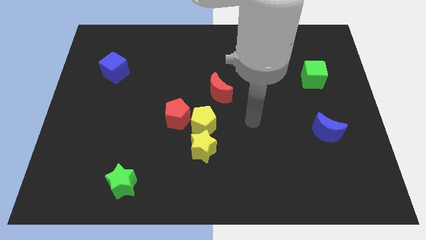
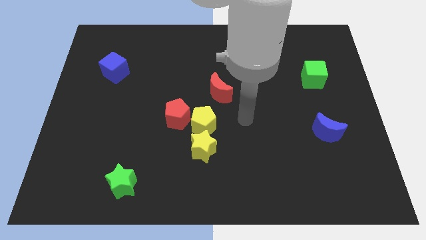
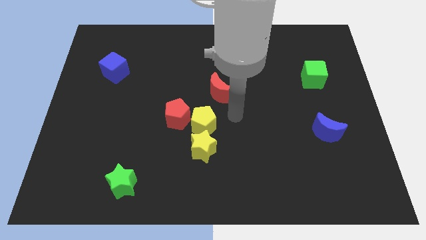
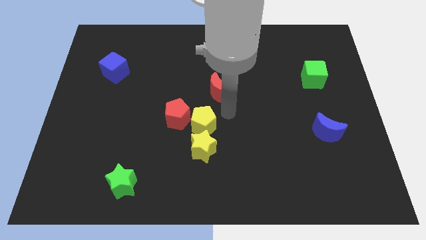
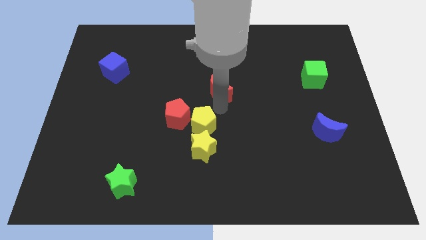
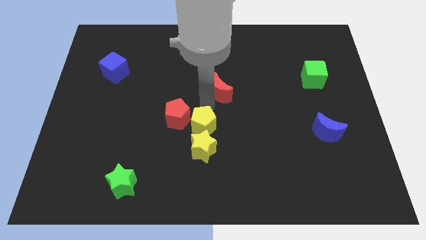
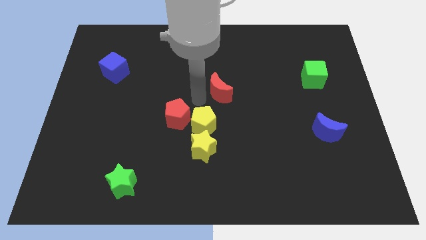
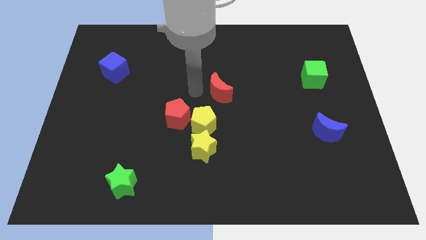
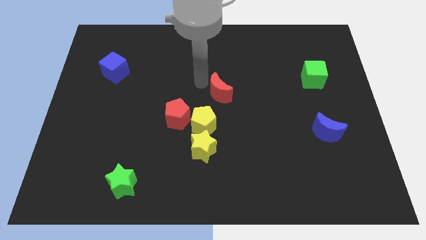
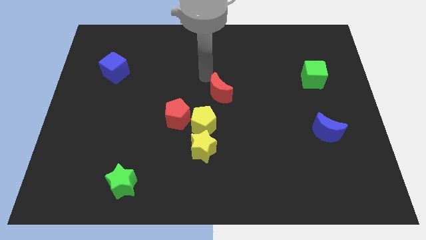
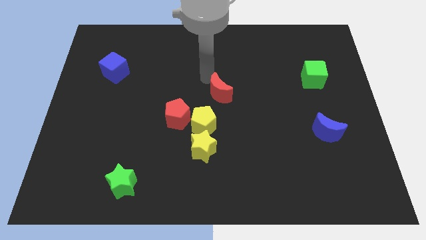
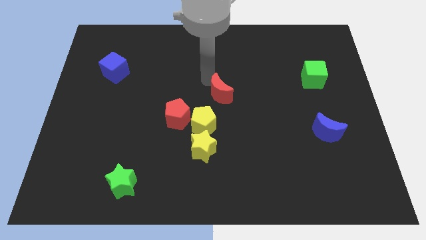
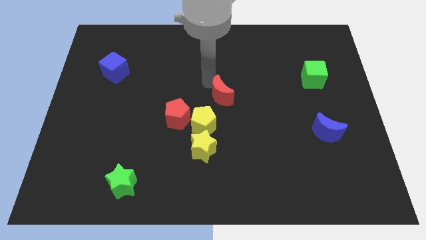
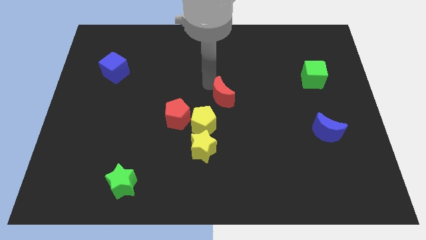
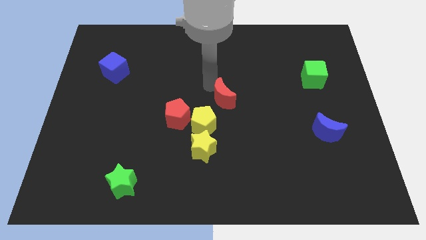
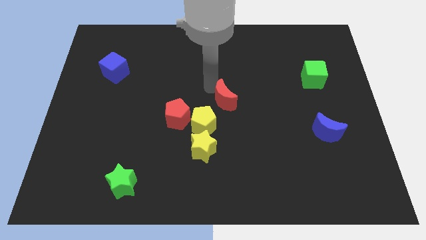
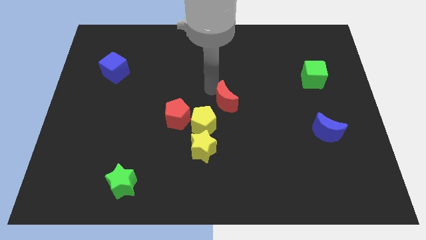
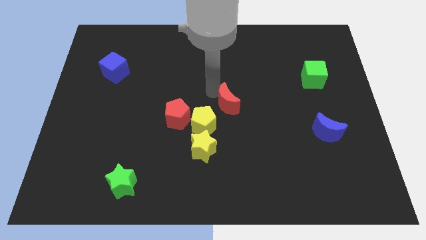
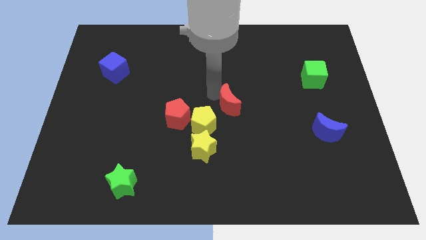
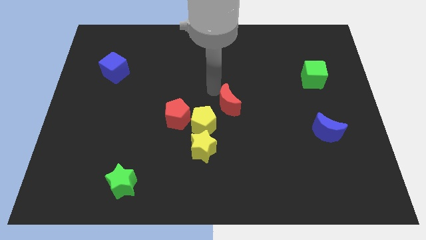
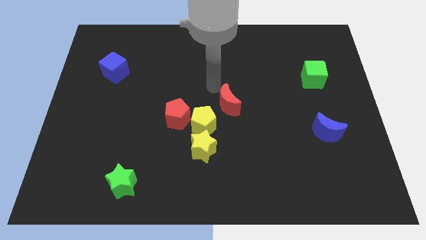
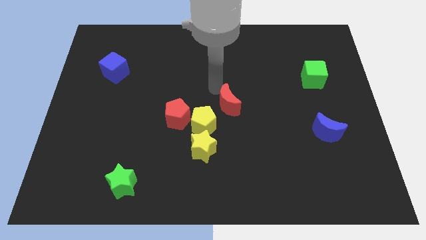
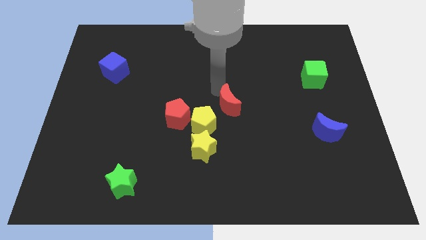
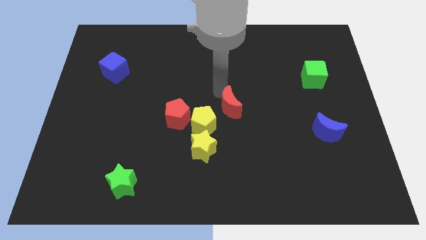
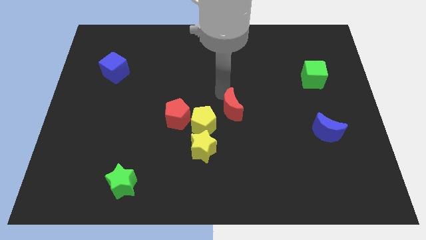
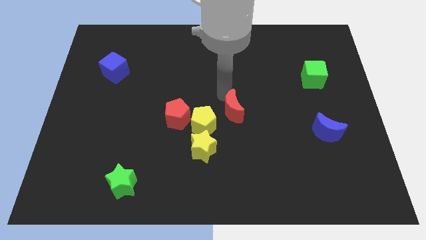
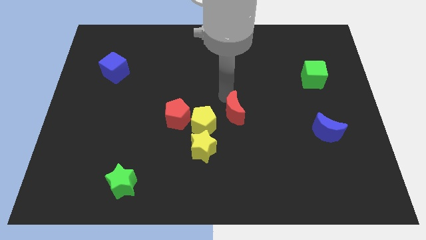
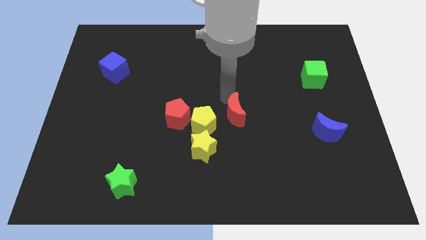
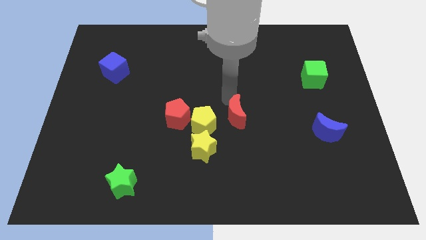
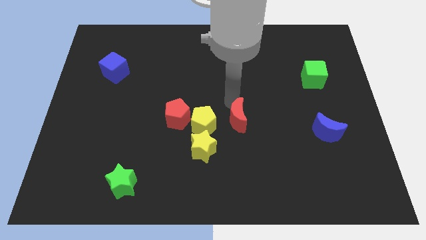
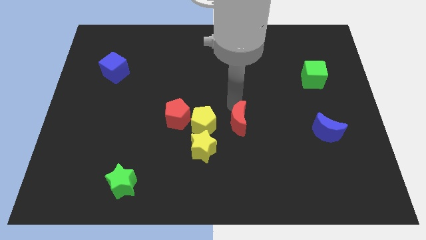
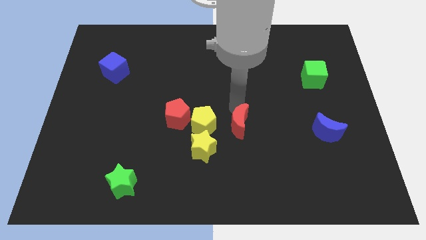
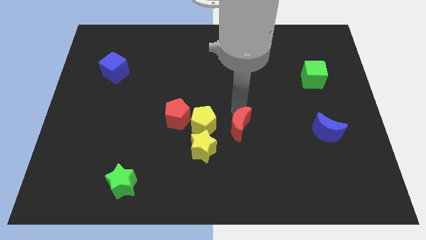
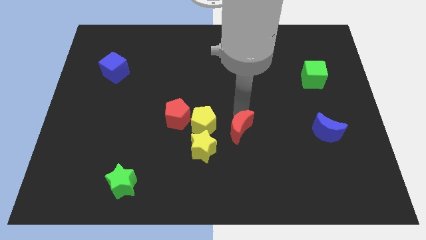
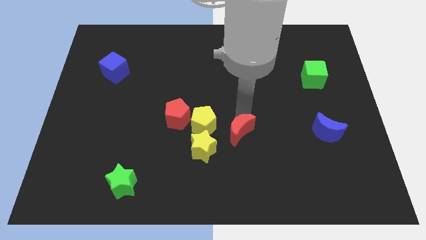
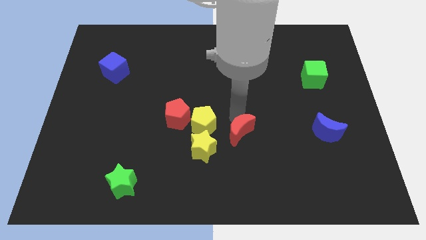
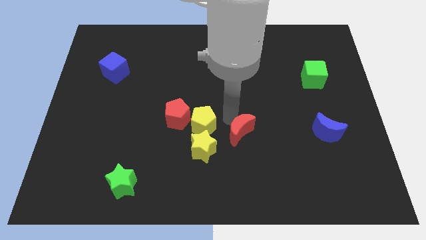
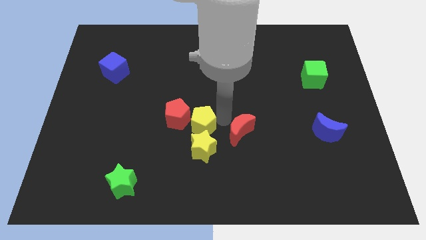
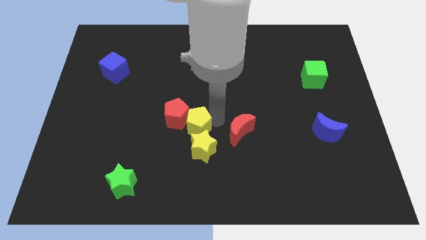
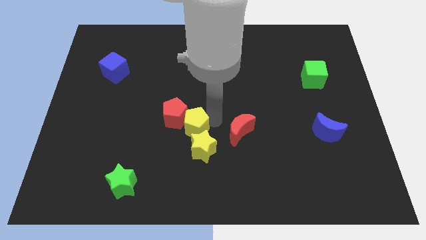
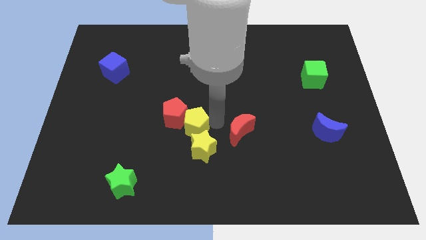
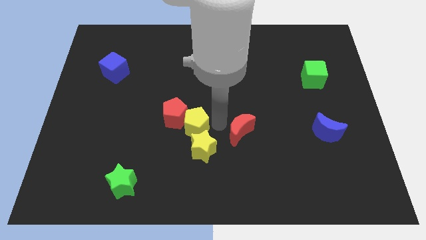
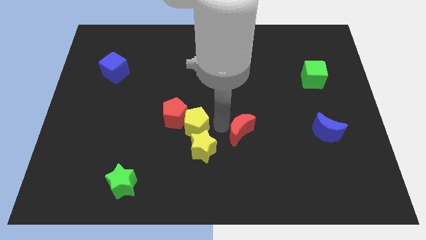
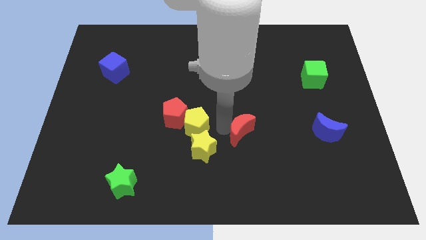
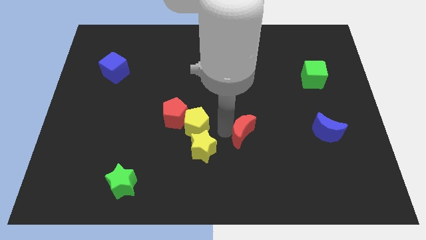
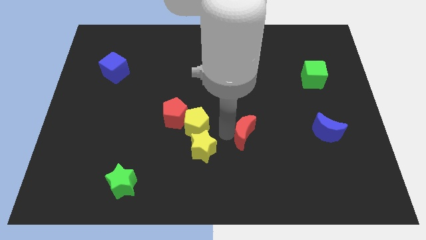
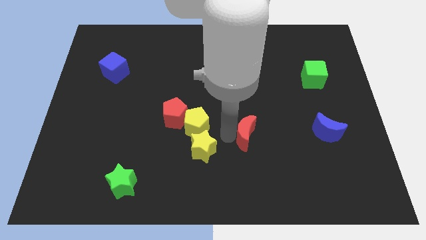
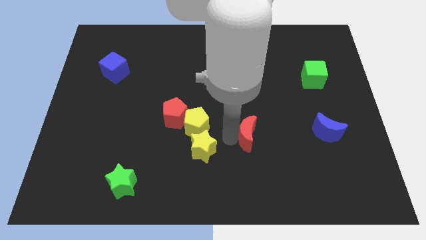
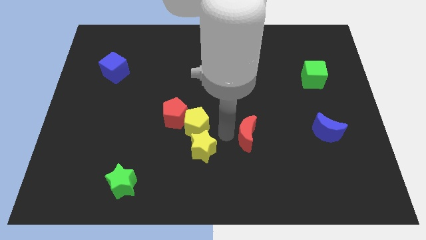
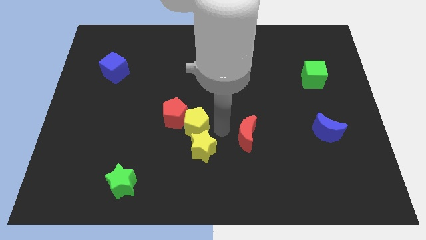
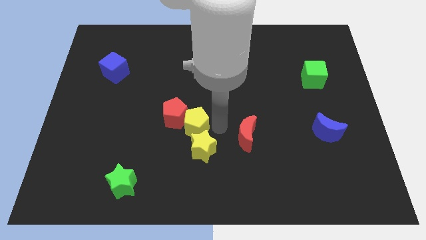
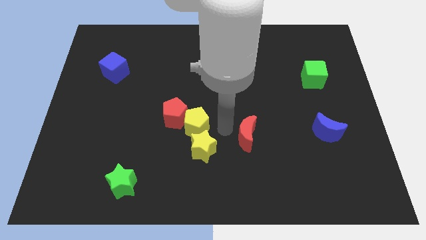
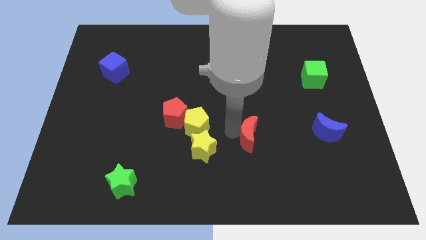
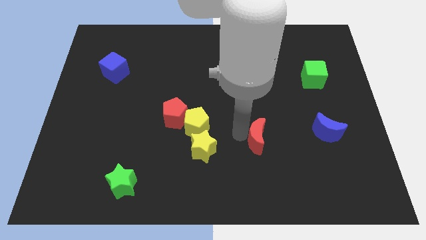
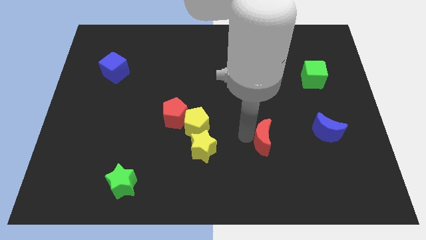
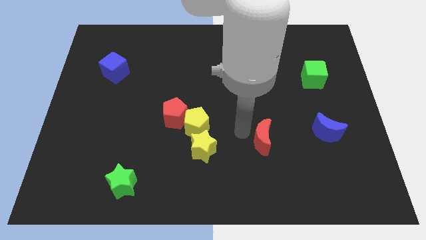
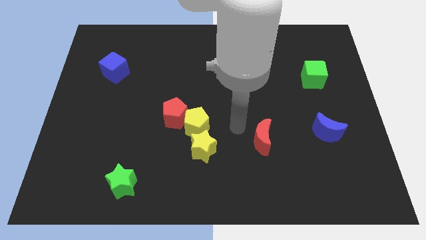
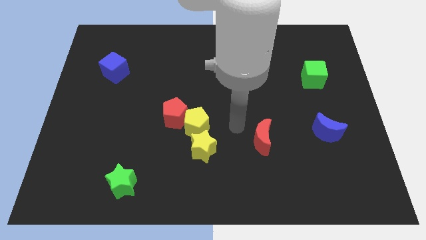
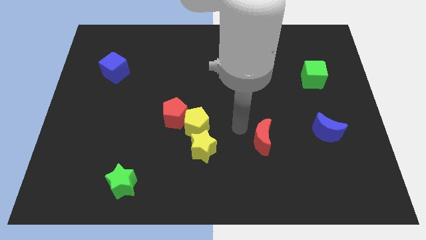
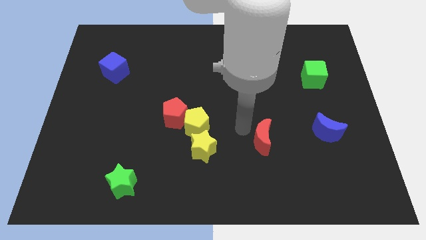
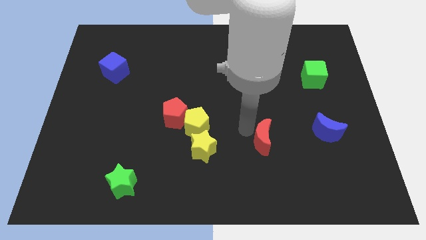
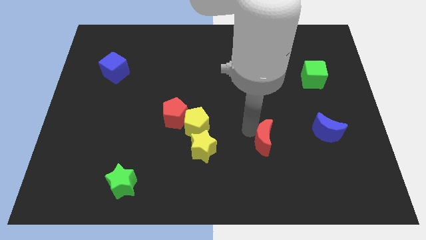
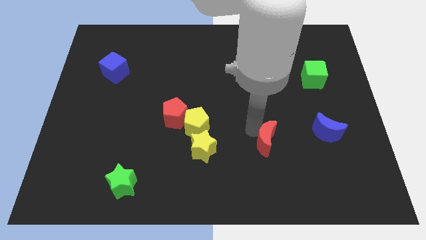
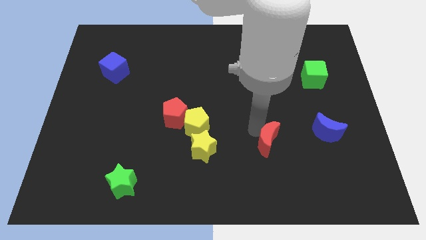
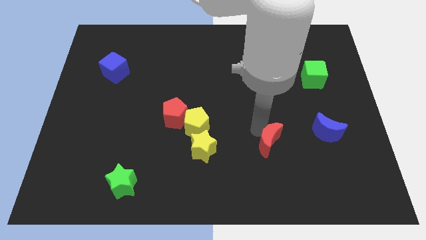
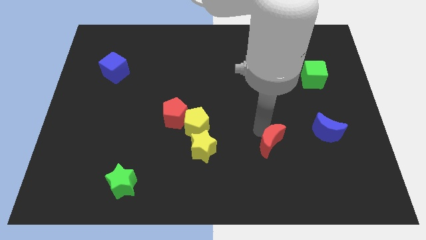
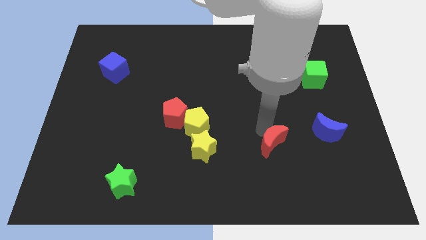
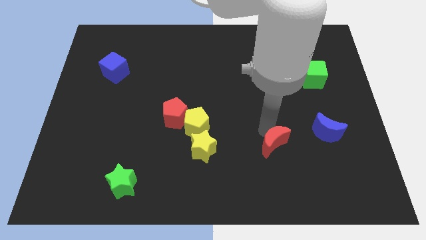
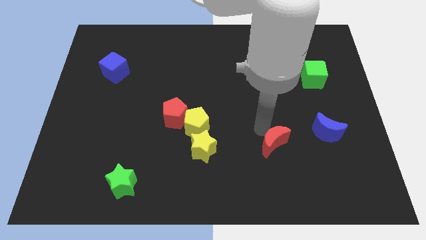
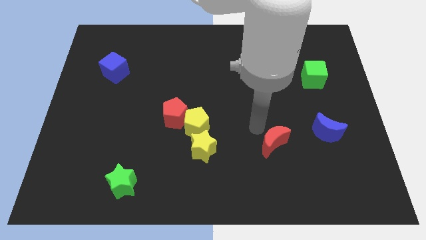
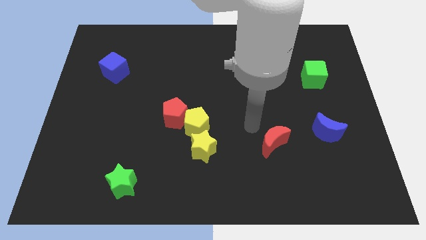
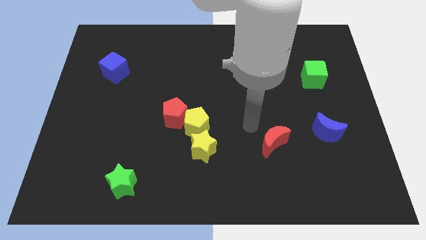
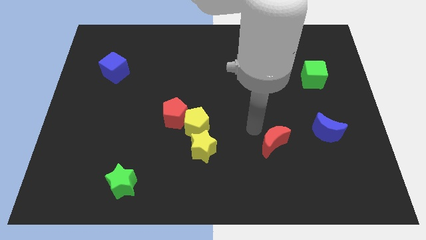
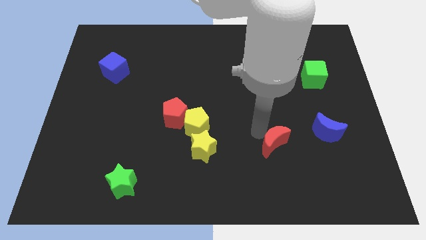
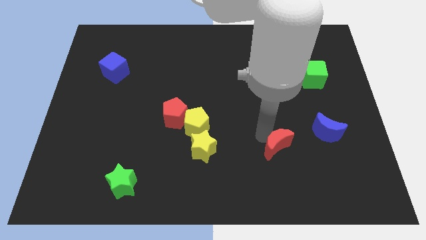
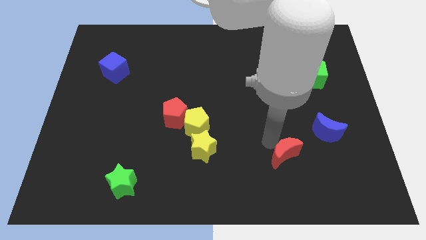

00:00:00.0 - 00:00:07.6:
move the red moon diagonally downwards and right

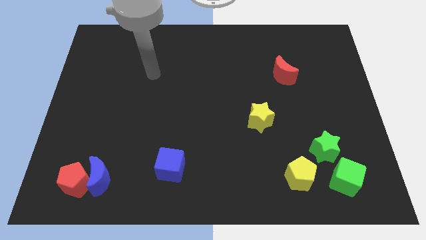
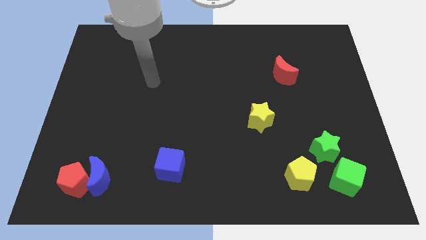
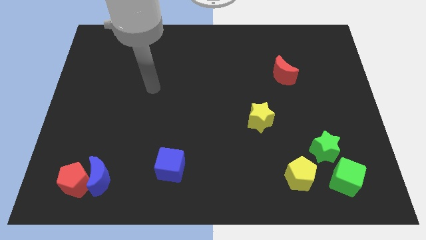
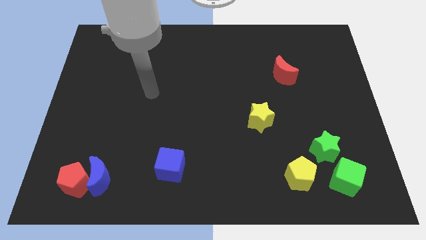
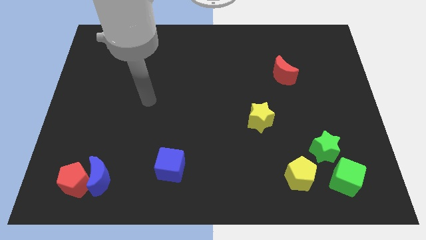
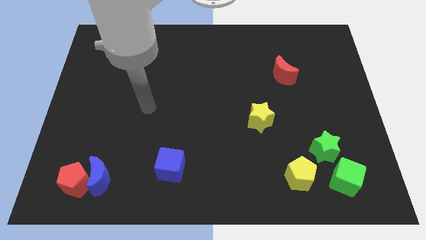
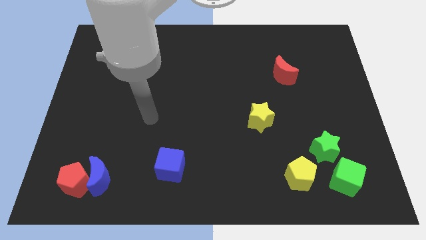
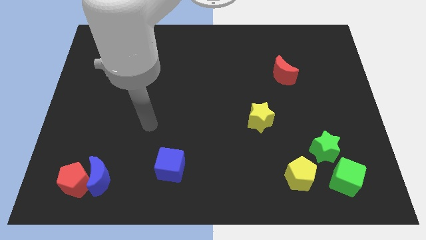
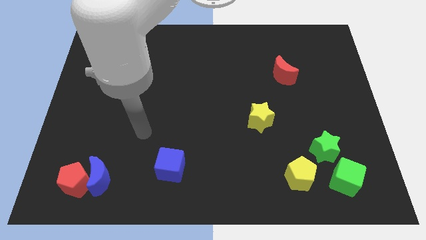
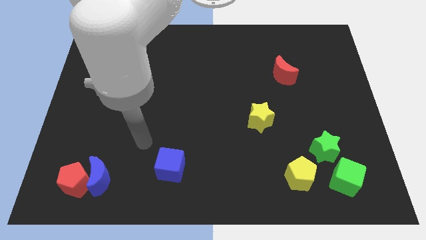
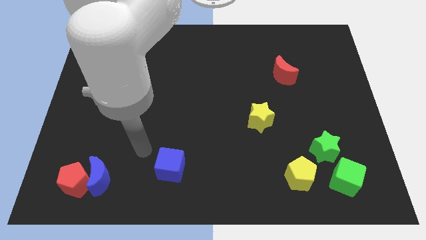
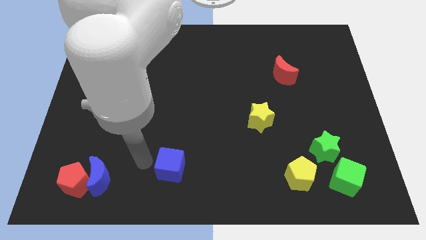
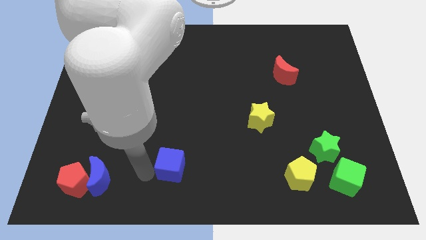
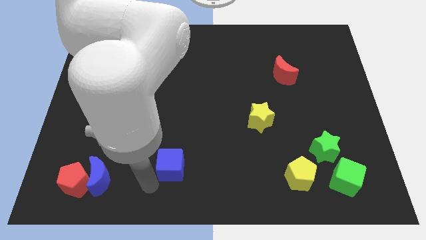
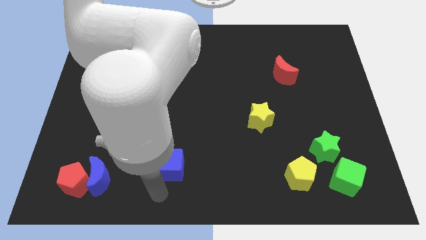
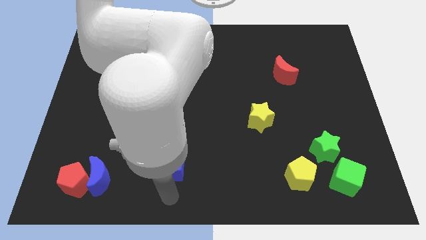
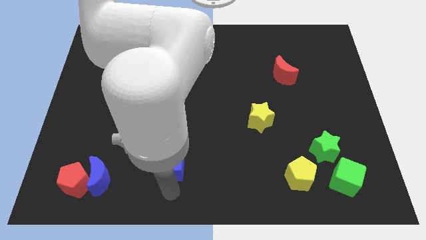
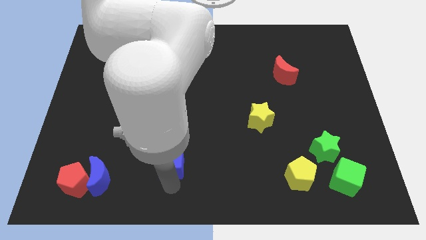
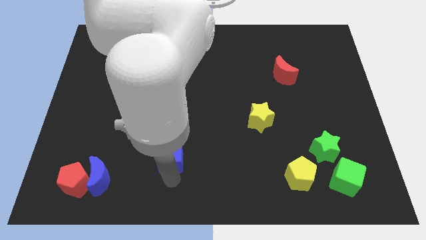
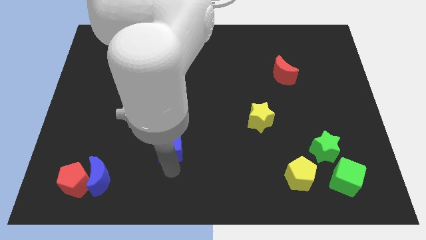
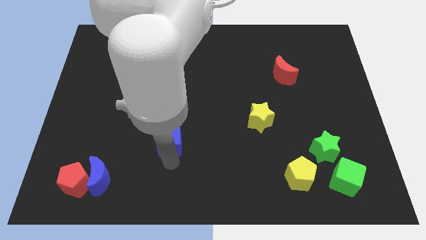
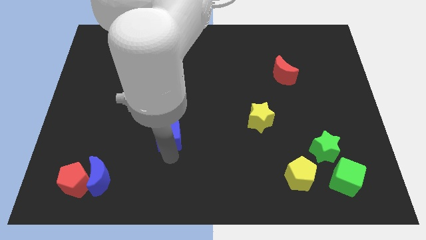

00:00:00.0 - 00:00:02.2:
push the blue cube upwards somewhat
